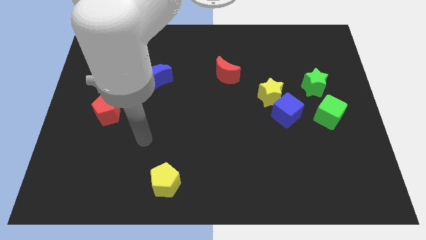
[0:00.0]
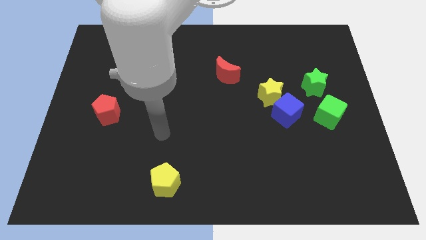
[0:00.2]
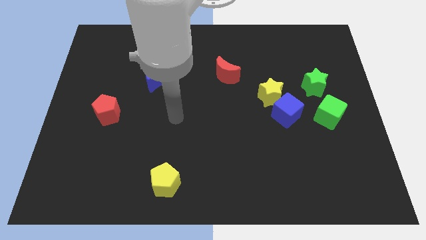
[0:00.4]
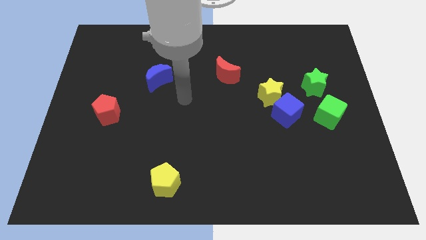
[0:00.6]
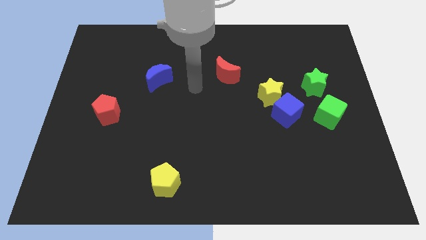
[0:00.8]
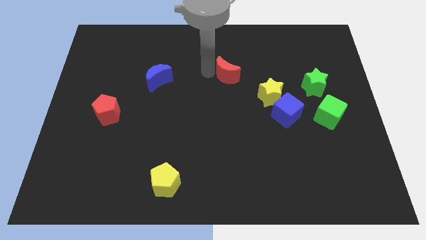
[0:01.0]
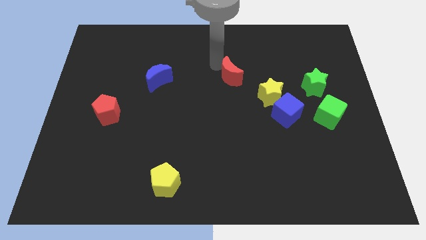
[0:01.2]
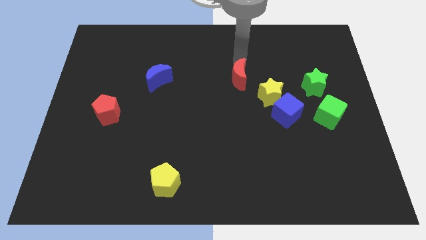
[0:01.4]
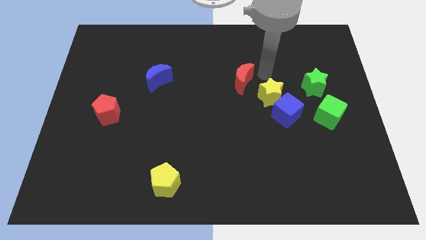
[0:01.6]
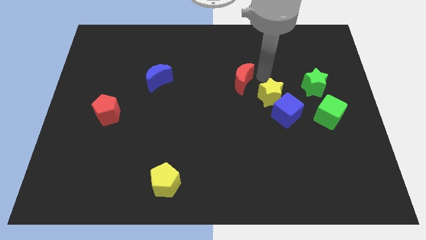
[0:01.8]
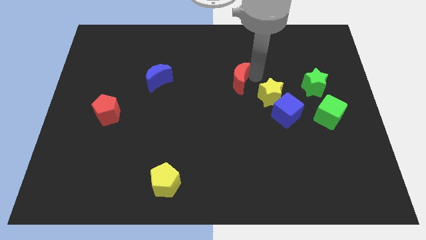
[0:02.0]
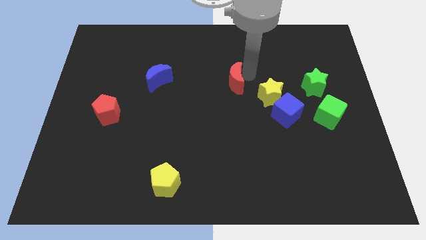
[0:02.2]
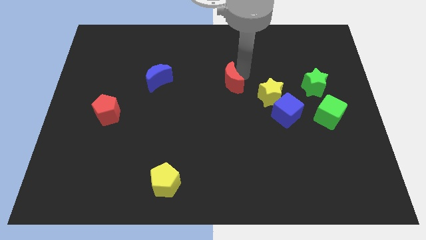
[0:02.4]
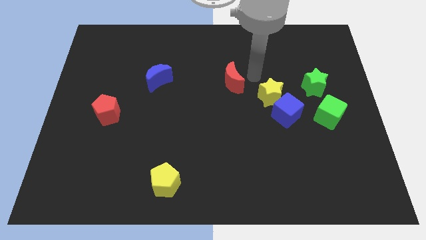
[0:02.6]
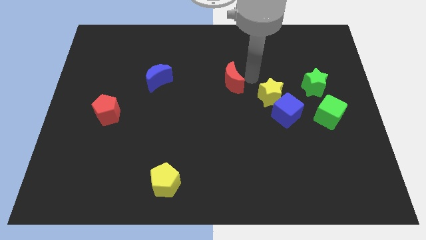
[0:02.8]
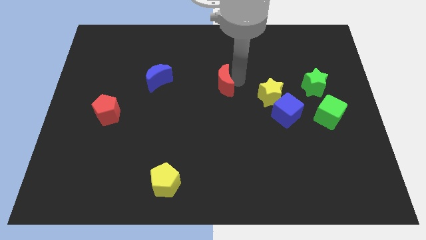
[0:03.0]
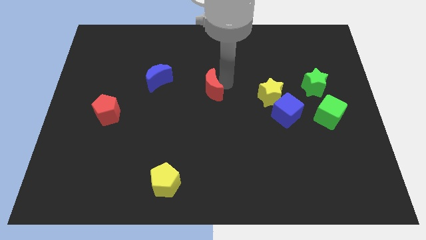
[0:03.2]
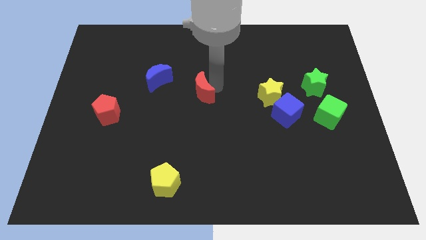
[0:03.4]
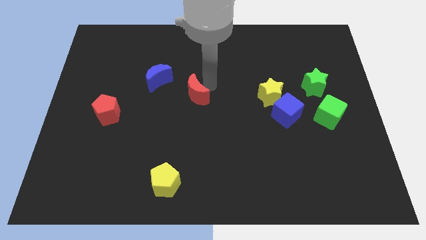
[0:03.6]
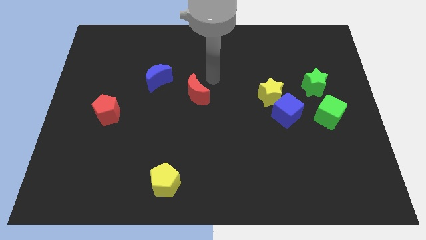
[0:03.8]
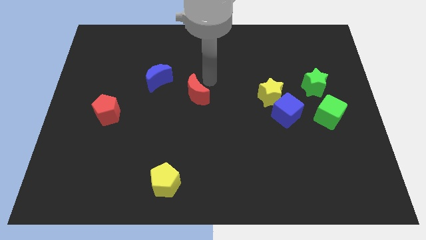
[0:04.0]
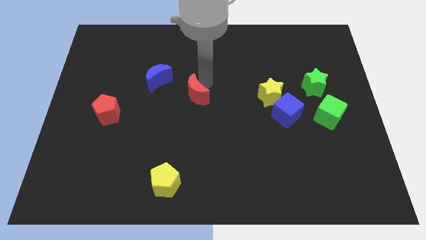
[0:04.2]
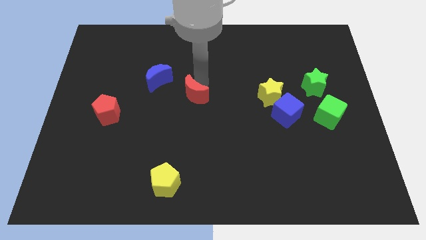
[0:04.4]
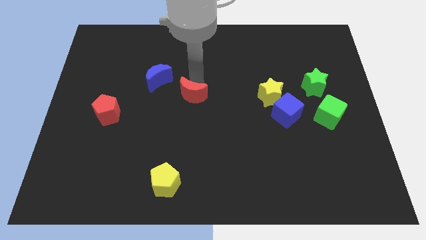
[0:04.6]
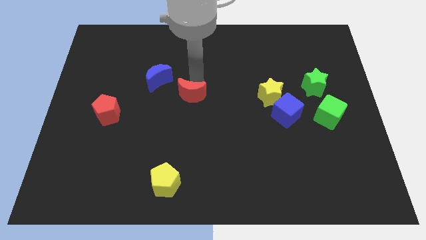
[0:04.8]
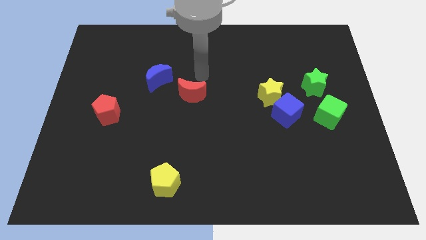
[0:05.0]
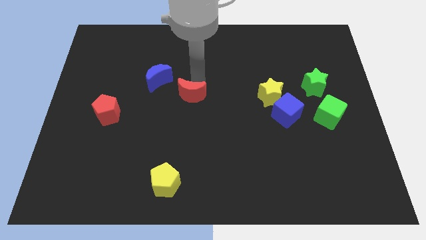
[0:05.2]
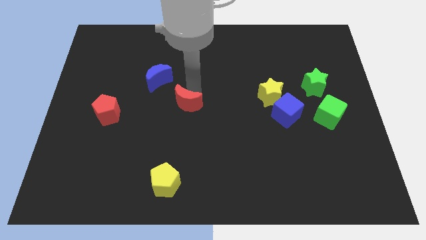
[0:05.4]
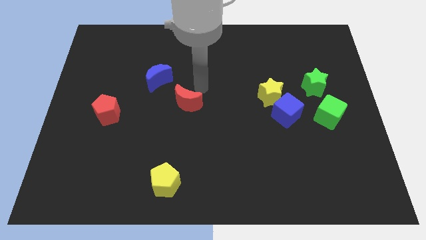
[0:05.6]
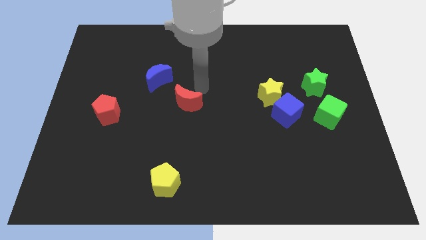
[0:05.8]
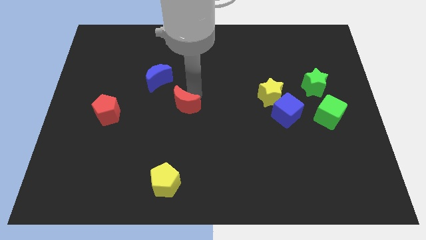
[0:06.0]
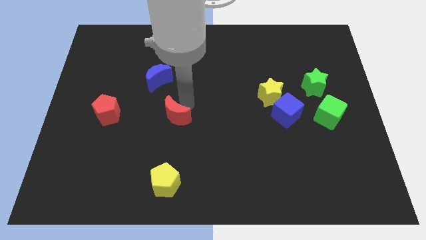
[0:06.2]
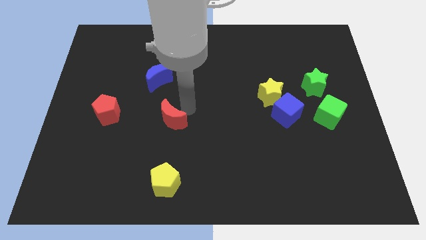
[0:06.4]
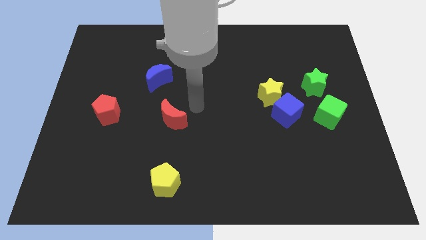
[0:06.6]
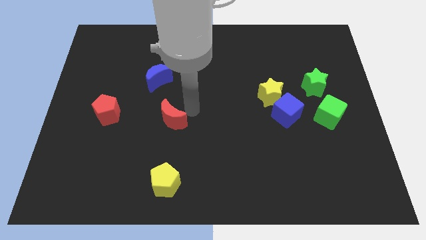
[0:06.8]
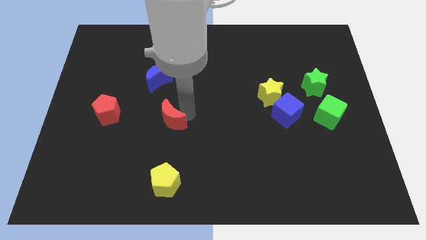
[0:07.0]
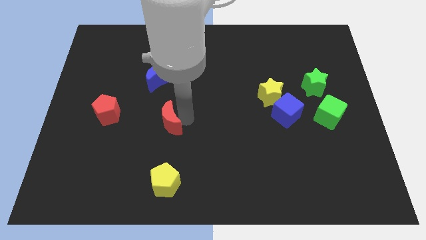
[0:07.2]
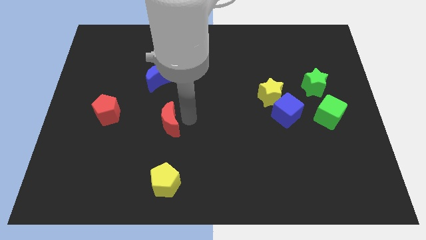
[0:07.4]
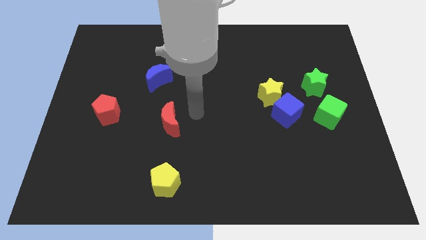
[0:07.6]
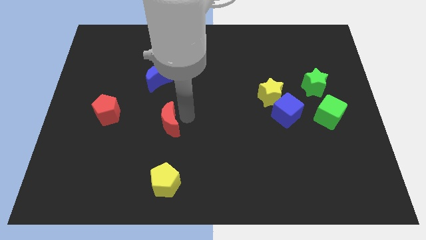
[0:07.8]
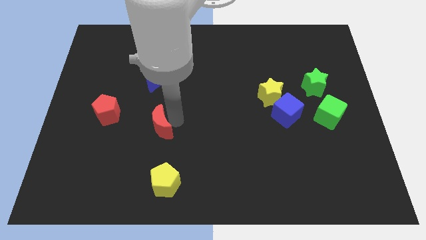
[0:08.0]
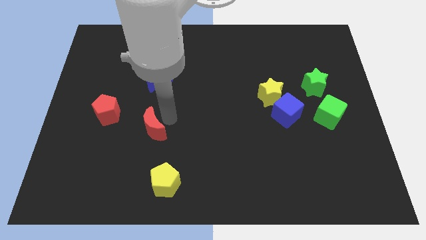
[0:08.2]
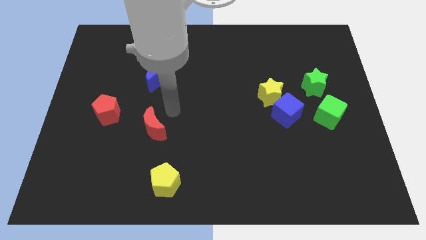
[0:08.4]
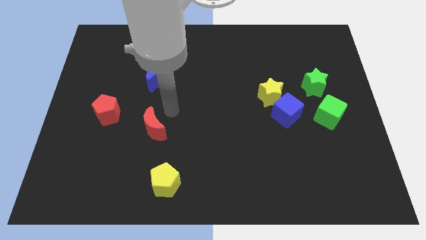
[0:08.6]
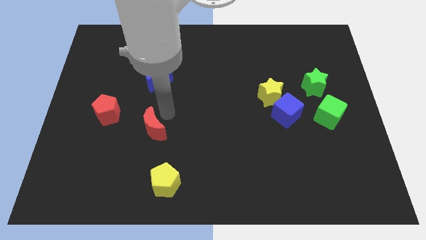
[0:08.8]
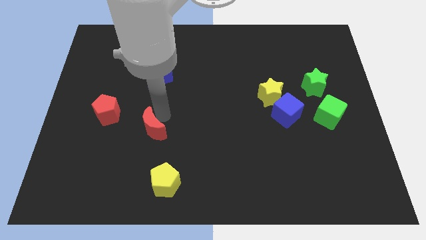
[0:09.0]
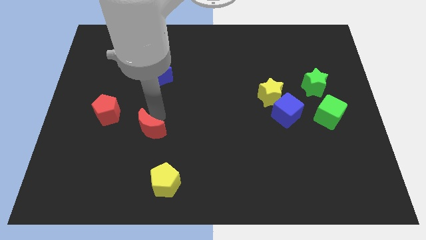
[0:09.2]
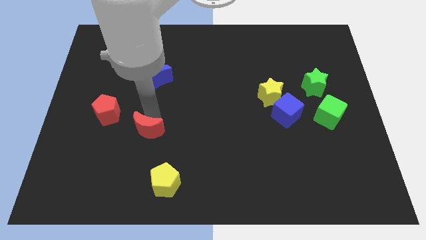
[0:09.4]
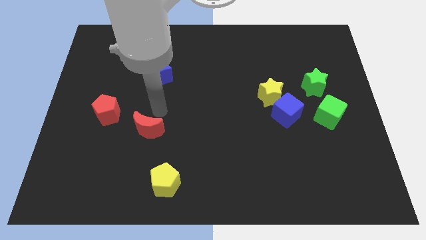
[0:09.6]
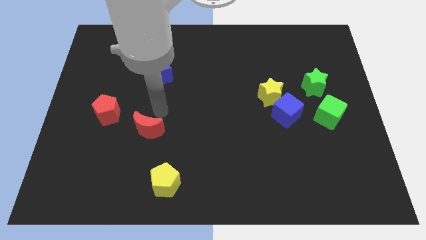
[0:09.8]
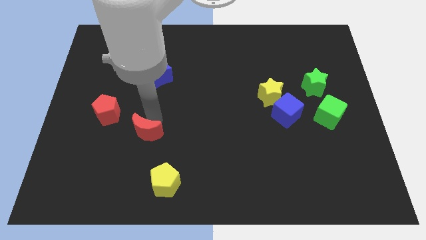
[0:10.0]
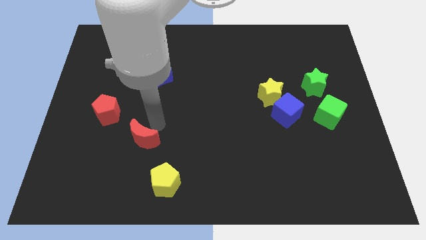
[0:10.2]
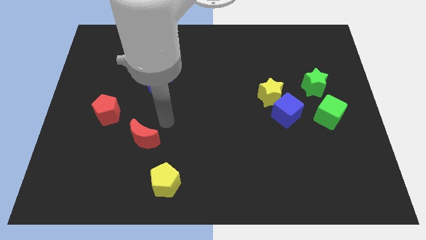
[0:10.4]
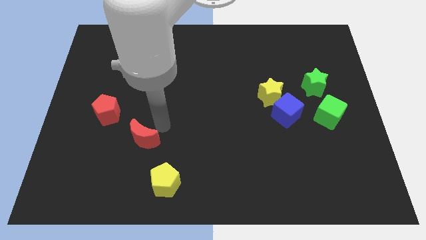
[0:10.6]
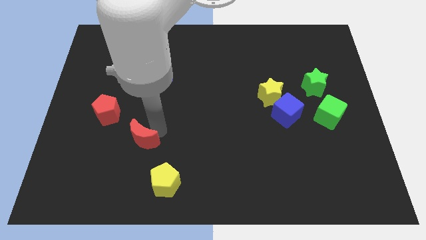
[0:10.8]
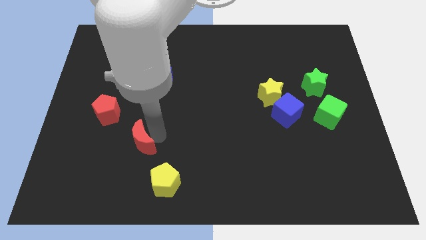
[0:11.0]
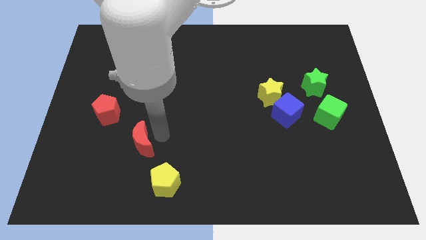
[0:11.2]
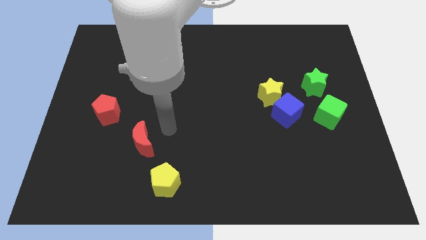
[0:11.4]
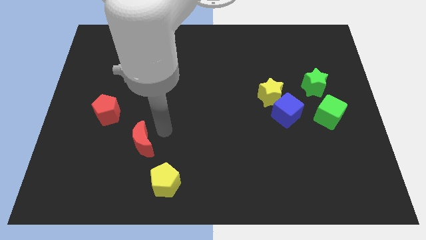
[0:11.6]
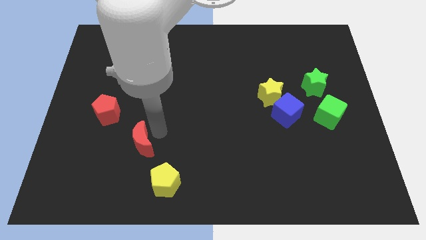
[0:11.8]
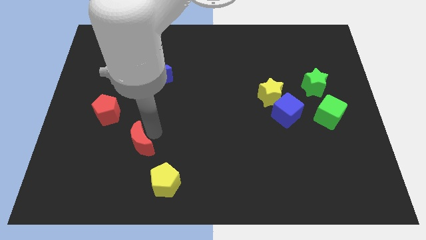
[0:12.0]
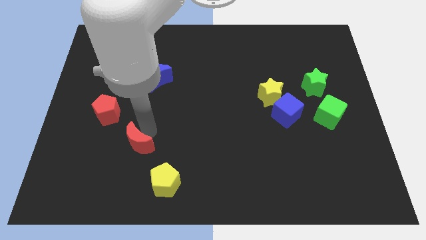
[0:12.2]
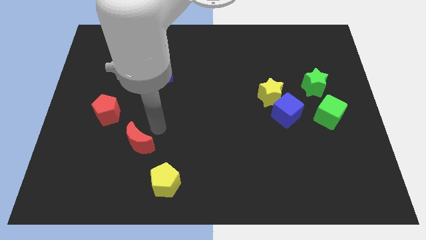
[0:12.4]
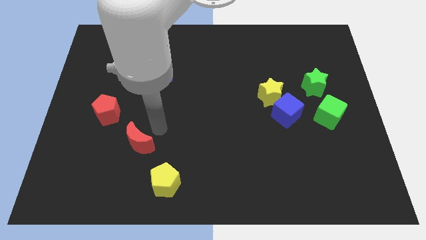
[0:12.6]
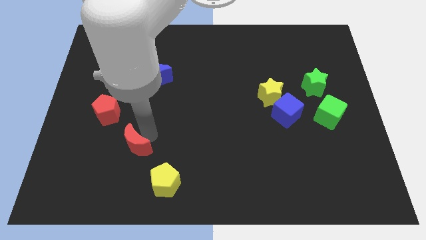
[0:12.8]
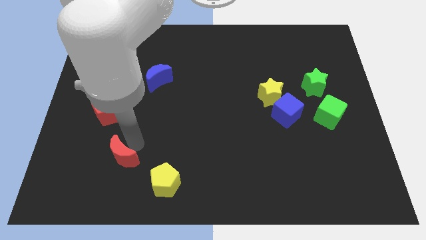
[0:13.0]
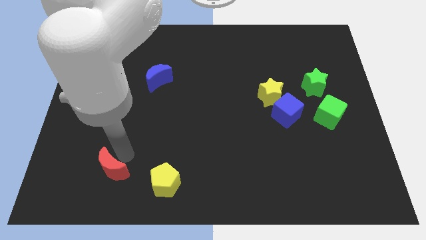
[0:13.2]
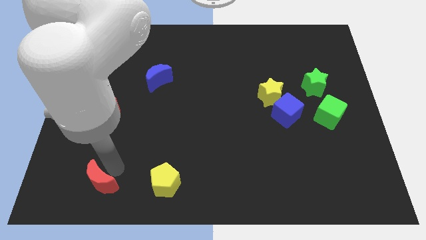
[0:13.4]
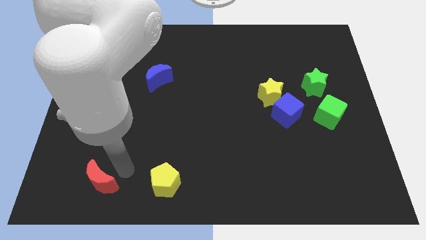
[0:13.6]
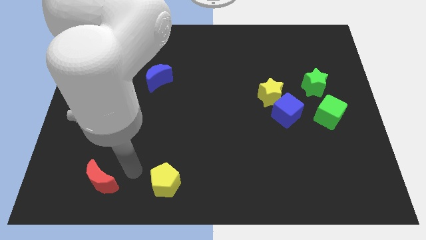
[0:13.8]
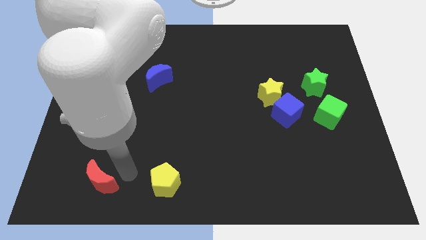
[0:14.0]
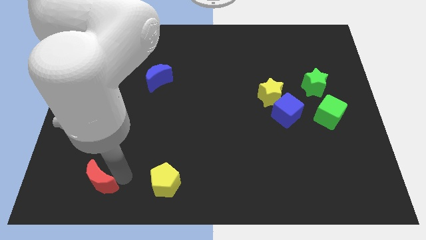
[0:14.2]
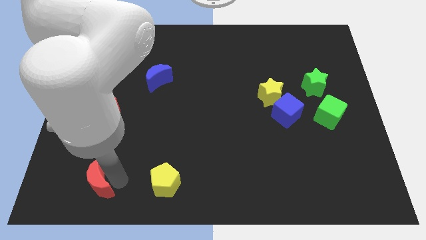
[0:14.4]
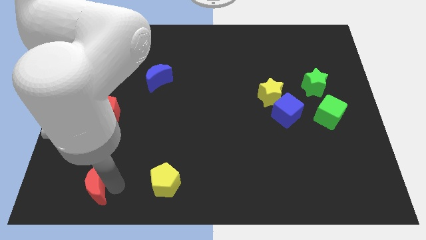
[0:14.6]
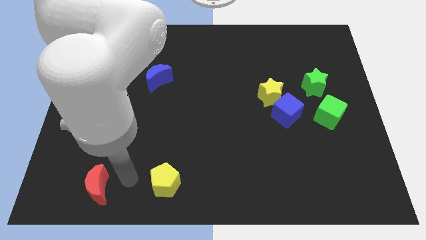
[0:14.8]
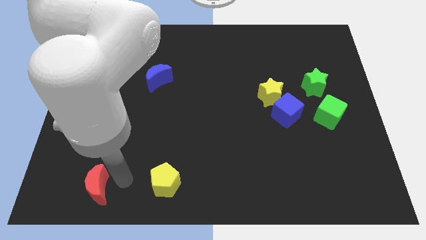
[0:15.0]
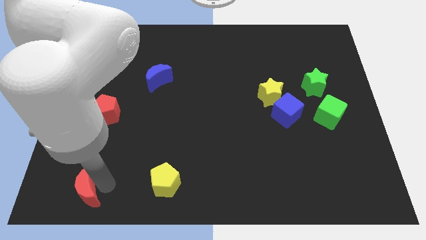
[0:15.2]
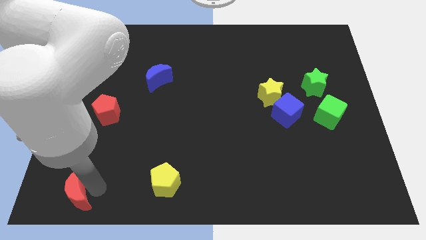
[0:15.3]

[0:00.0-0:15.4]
put the red moon to the lower left corner
